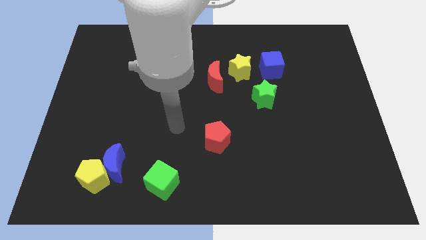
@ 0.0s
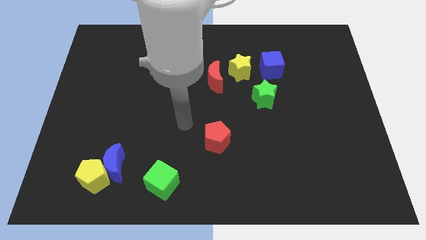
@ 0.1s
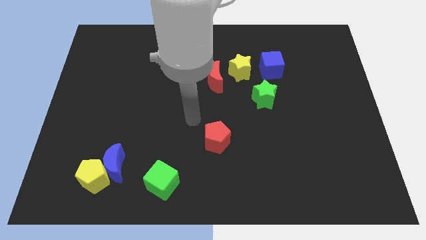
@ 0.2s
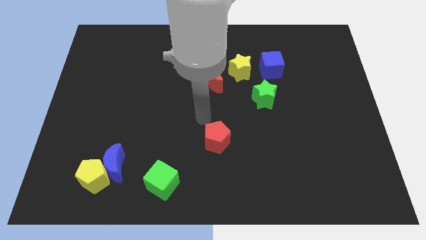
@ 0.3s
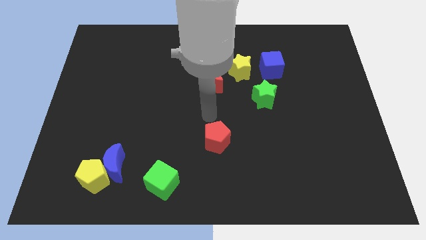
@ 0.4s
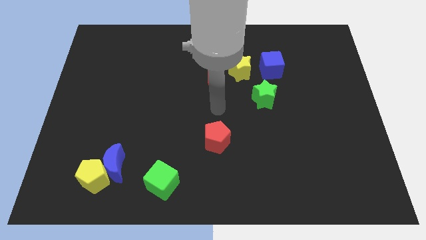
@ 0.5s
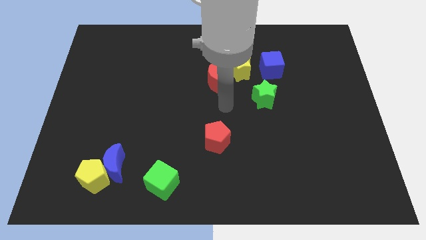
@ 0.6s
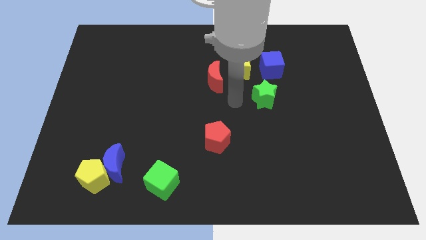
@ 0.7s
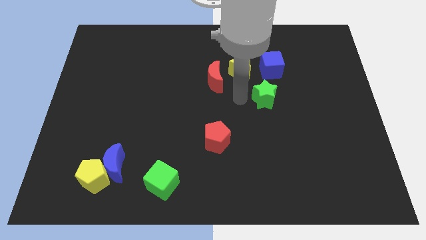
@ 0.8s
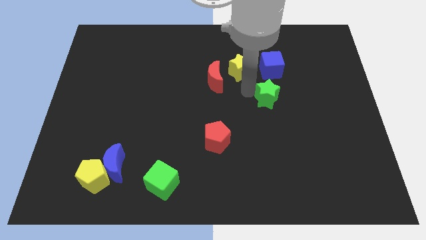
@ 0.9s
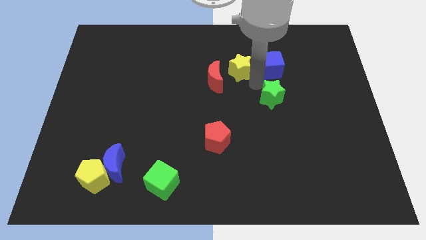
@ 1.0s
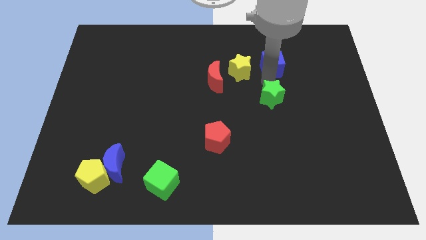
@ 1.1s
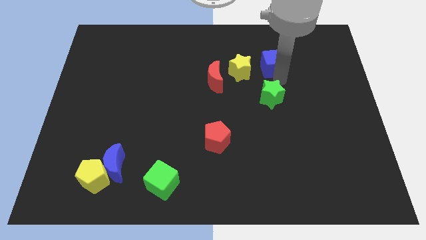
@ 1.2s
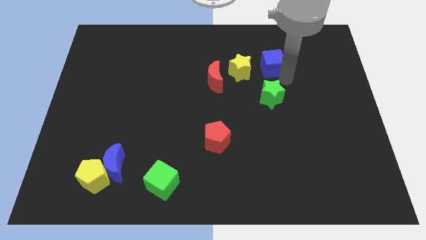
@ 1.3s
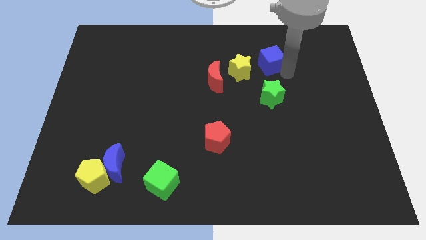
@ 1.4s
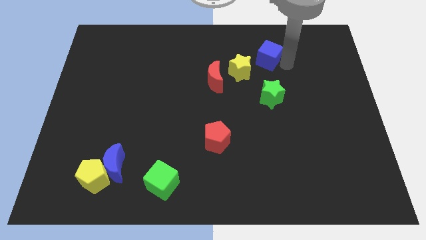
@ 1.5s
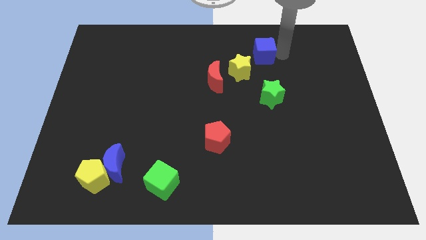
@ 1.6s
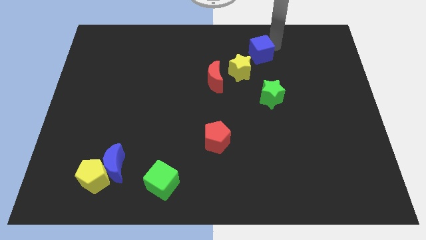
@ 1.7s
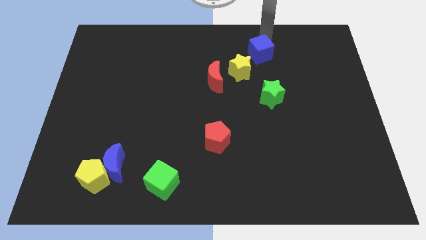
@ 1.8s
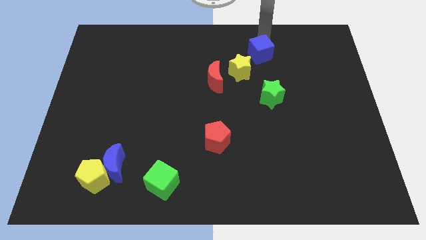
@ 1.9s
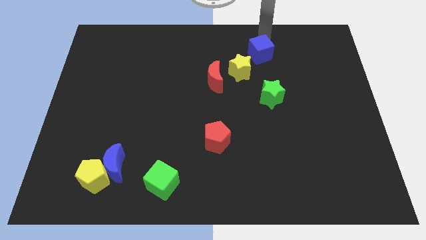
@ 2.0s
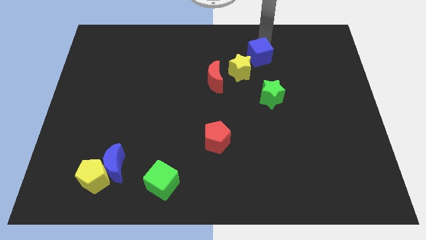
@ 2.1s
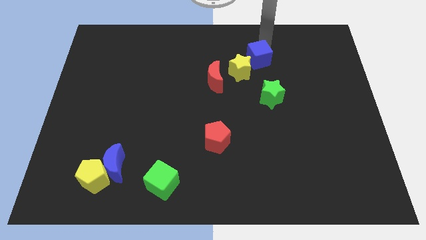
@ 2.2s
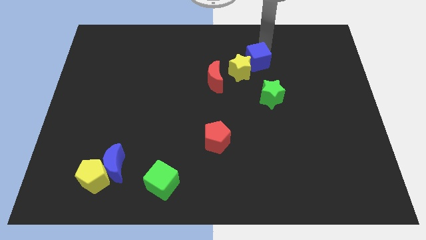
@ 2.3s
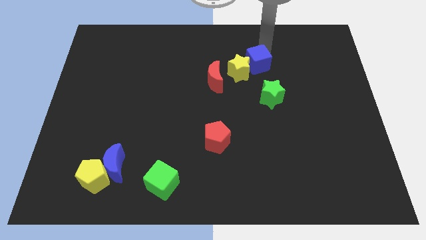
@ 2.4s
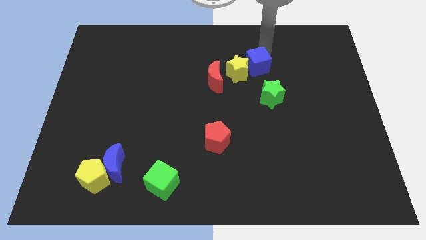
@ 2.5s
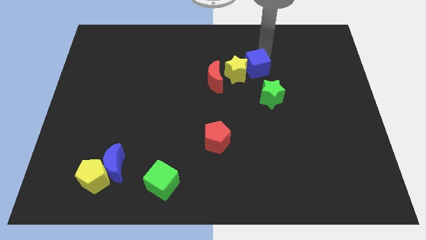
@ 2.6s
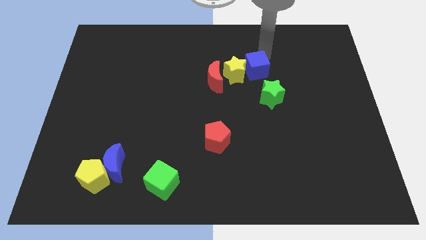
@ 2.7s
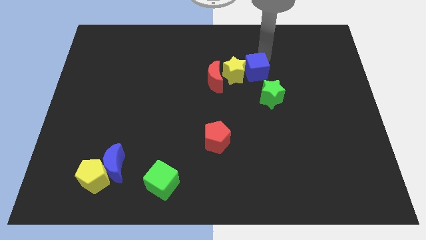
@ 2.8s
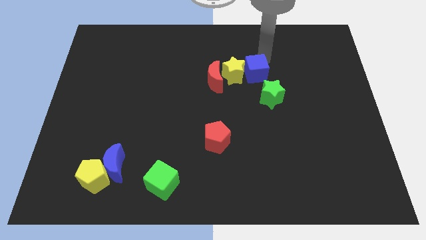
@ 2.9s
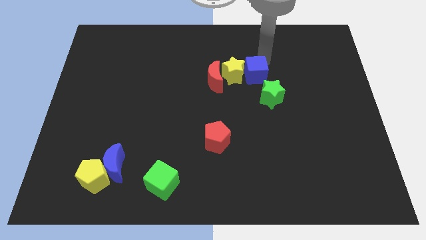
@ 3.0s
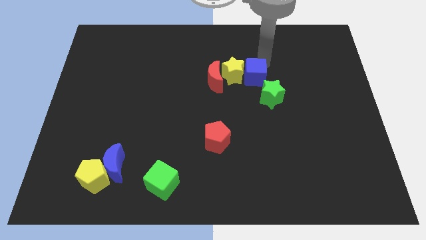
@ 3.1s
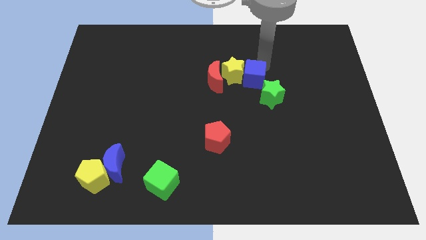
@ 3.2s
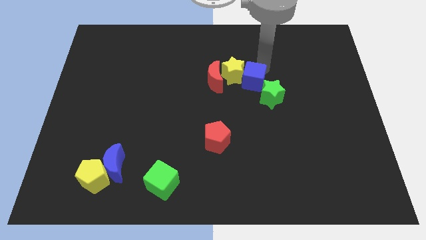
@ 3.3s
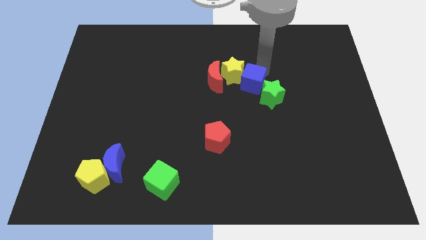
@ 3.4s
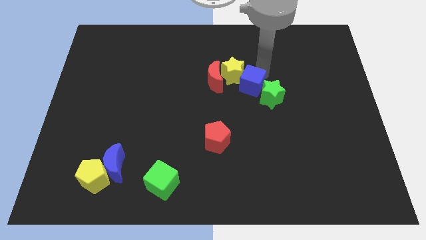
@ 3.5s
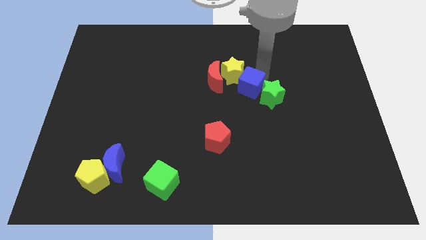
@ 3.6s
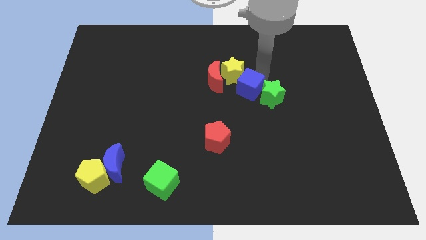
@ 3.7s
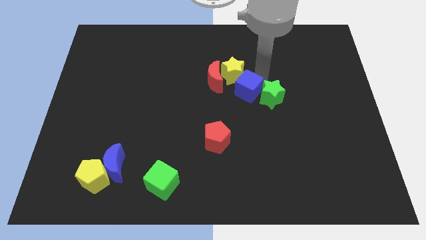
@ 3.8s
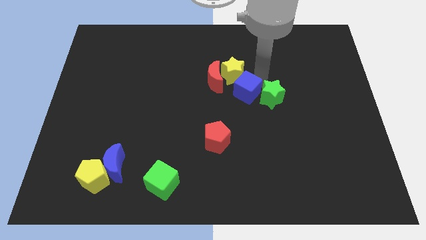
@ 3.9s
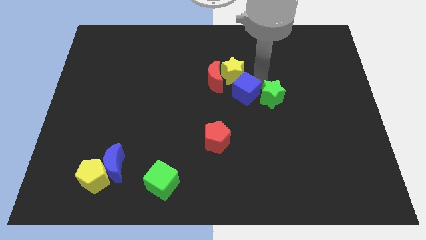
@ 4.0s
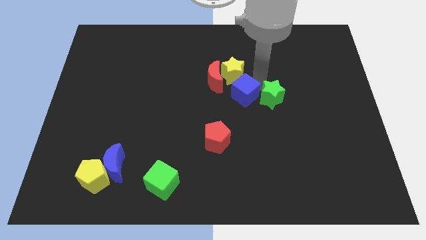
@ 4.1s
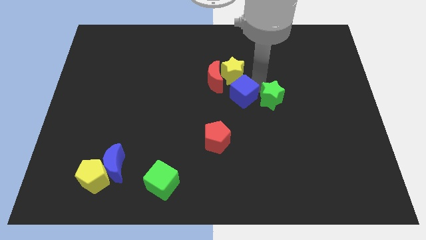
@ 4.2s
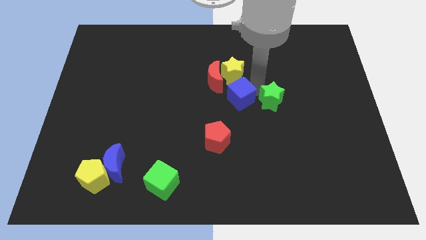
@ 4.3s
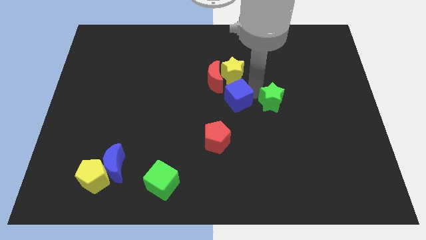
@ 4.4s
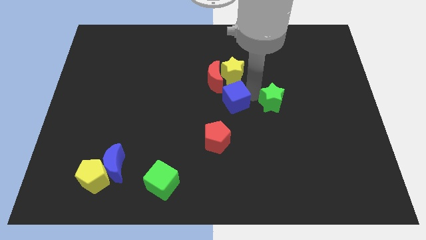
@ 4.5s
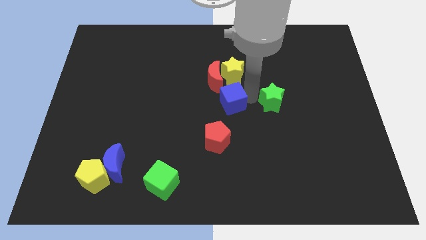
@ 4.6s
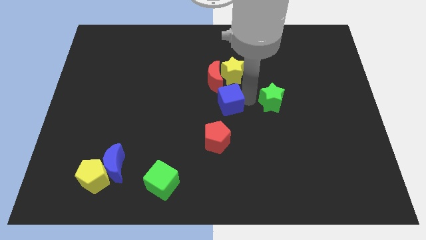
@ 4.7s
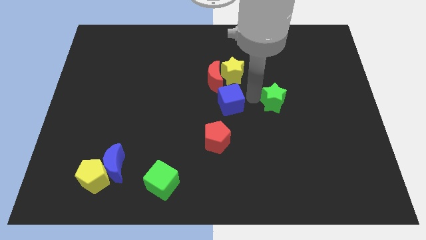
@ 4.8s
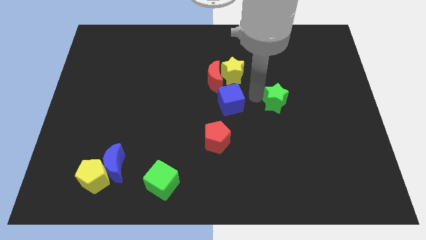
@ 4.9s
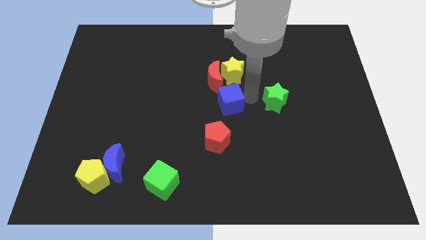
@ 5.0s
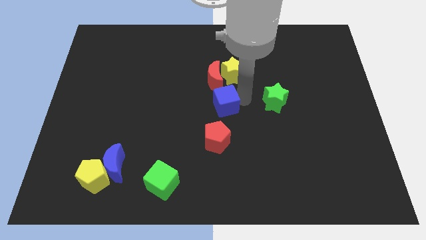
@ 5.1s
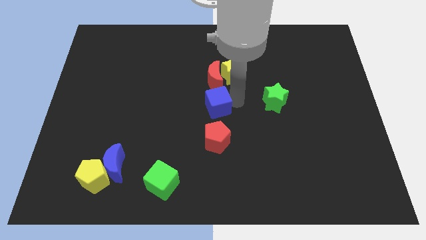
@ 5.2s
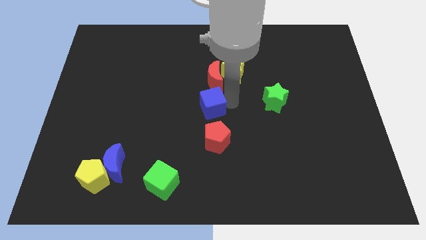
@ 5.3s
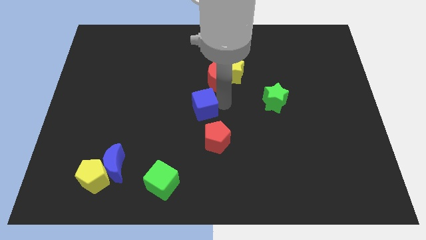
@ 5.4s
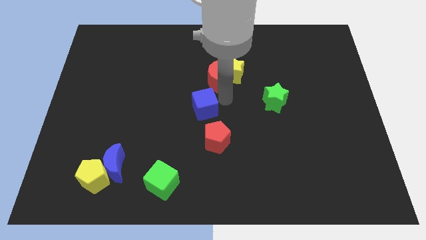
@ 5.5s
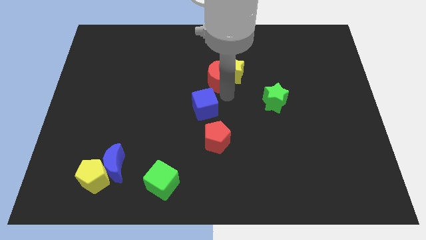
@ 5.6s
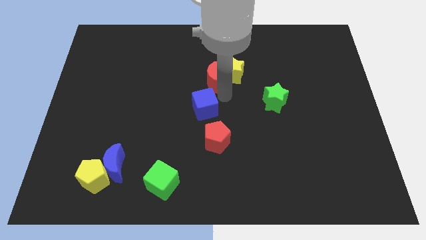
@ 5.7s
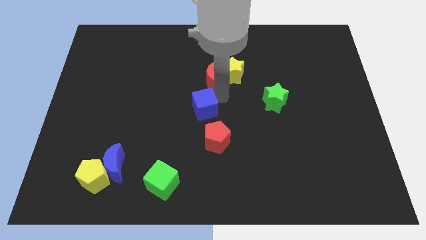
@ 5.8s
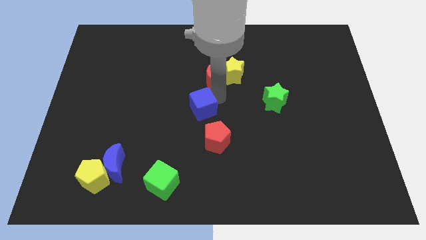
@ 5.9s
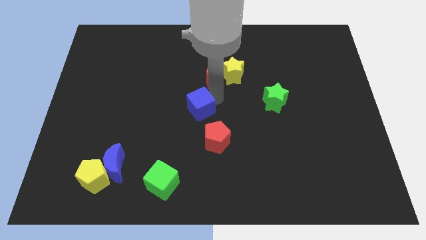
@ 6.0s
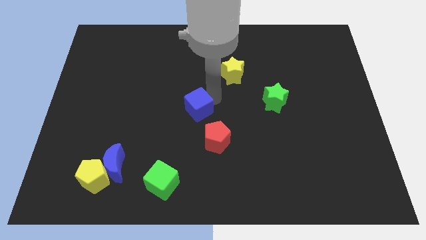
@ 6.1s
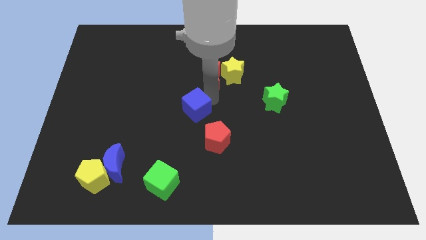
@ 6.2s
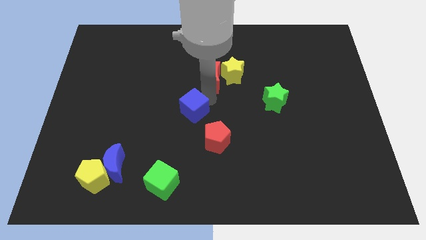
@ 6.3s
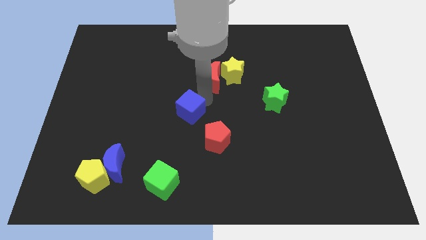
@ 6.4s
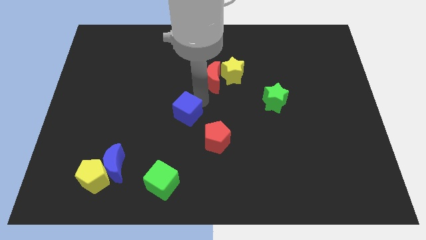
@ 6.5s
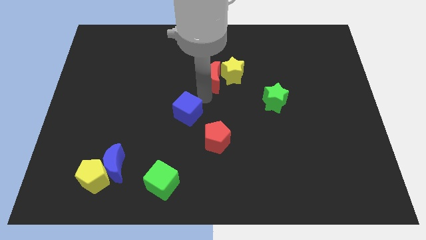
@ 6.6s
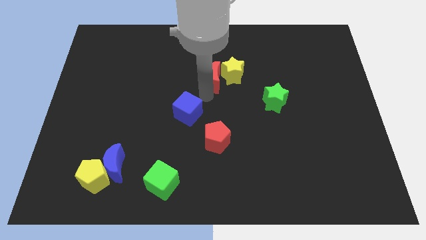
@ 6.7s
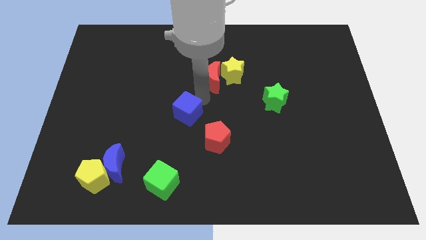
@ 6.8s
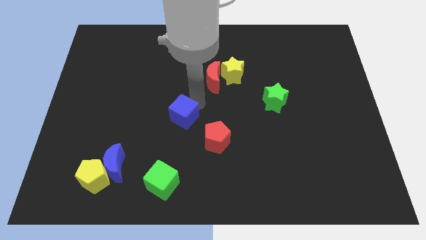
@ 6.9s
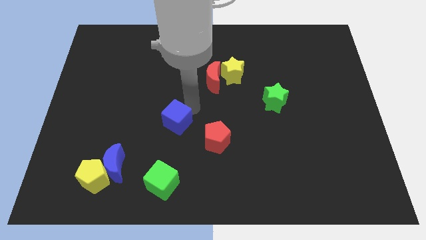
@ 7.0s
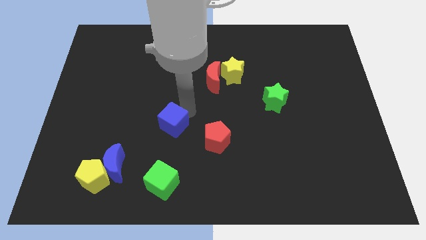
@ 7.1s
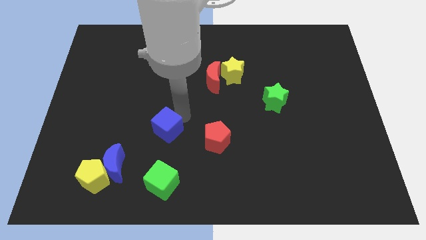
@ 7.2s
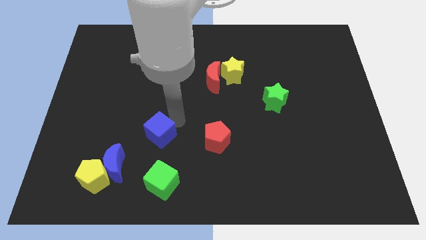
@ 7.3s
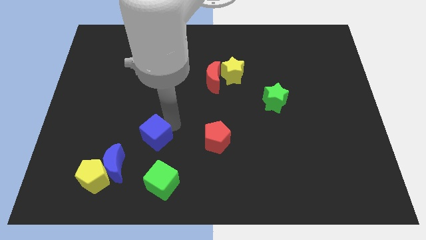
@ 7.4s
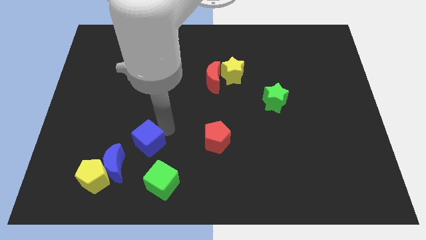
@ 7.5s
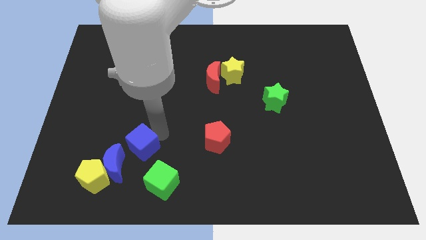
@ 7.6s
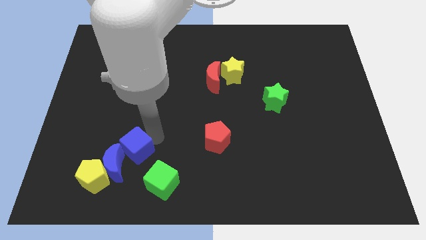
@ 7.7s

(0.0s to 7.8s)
put the blue cube towards the blue moon
